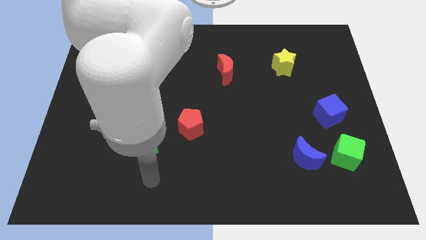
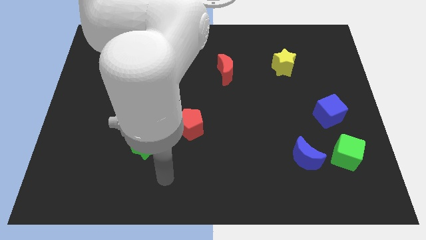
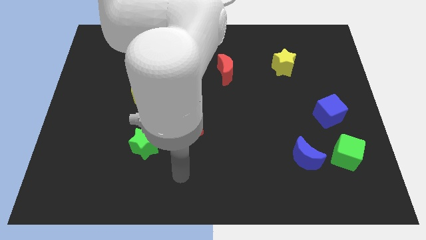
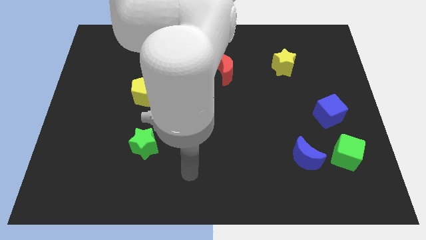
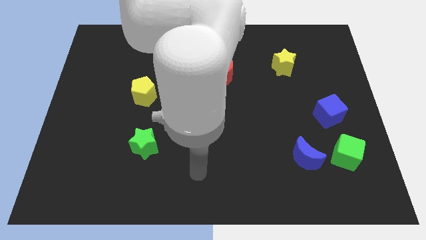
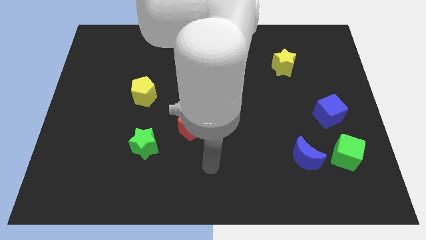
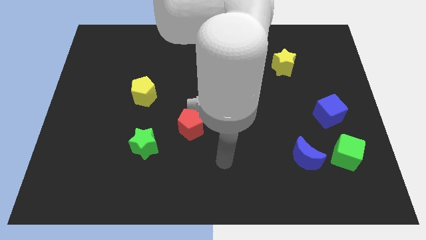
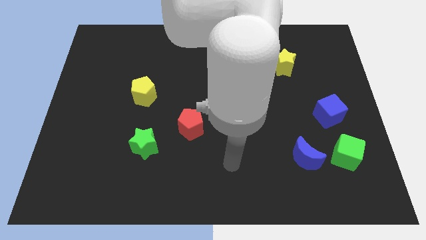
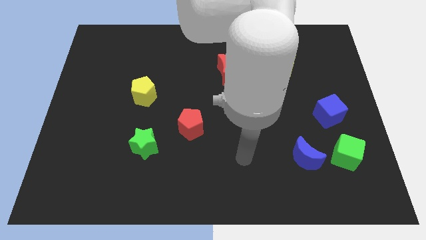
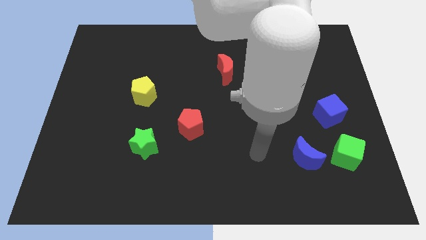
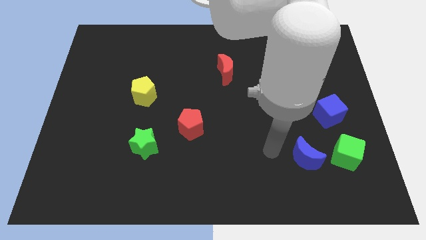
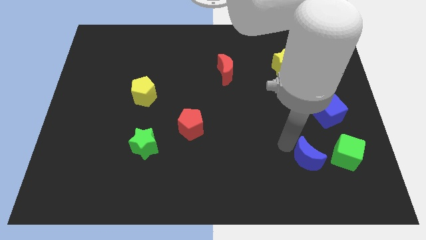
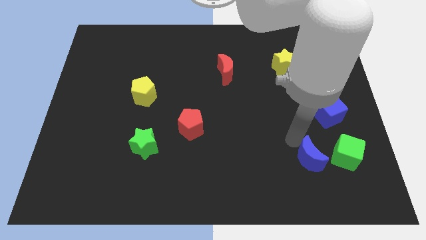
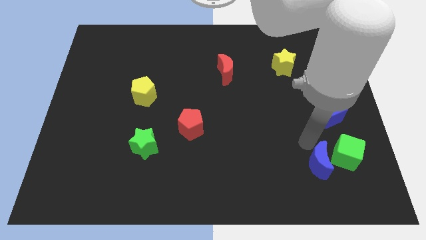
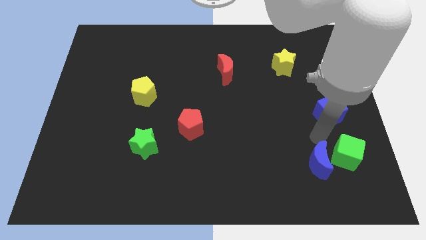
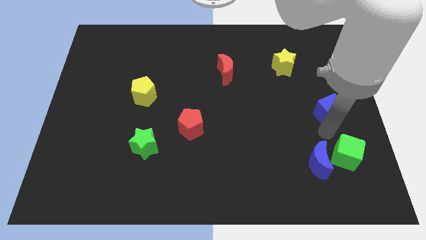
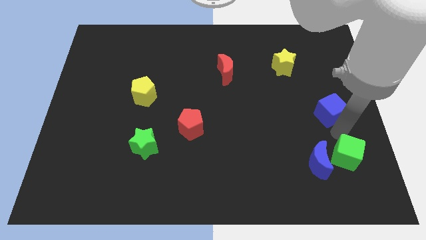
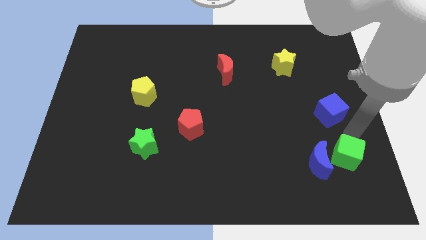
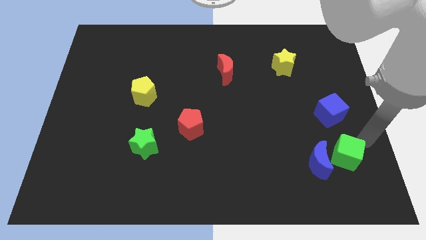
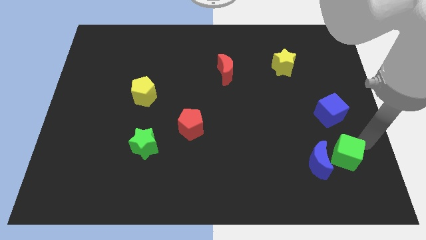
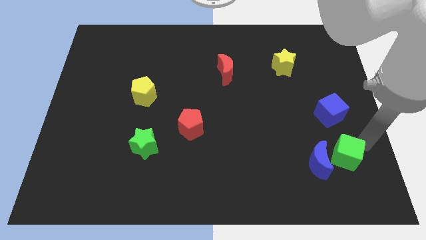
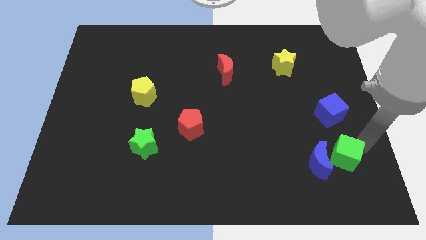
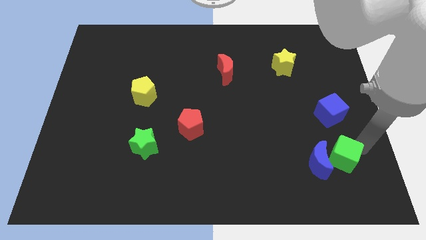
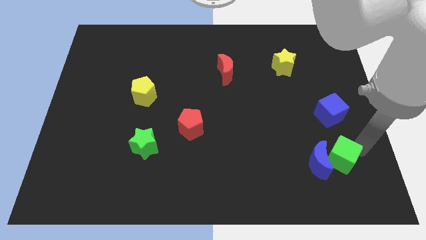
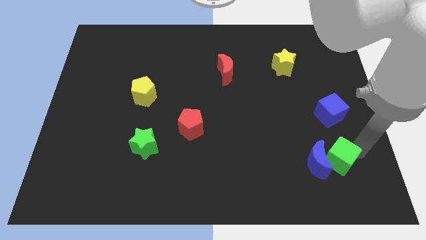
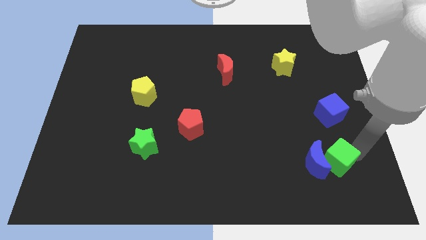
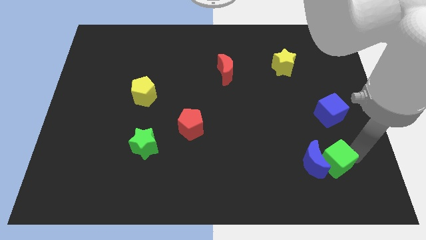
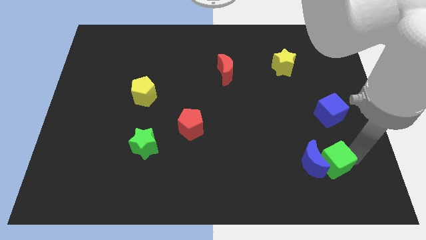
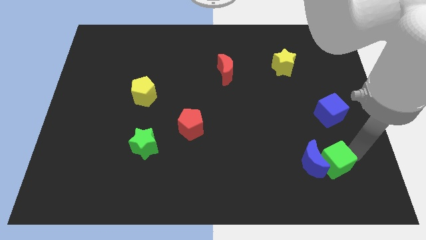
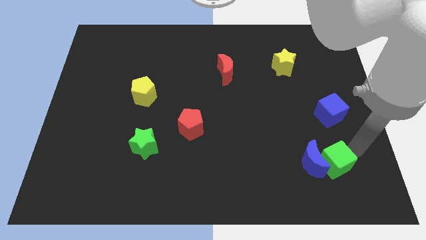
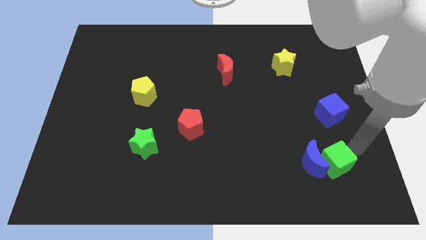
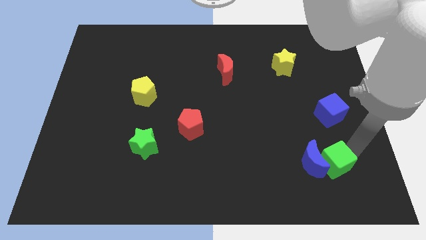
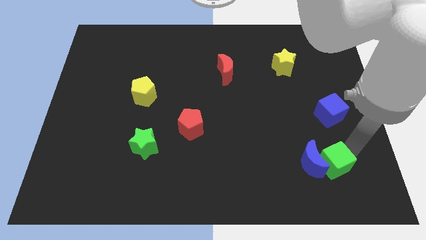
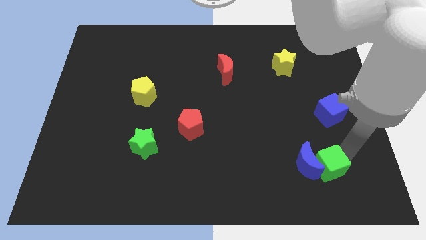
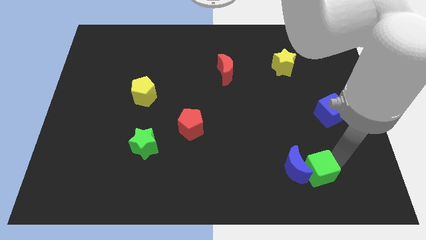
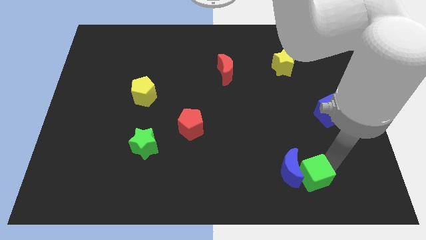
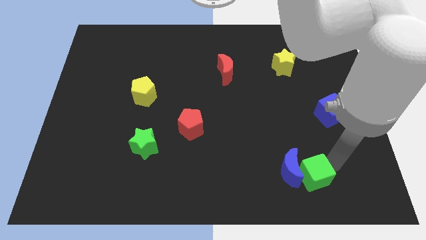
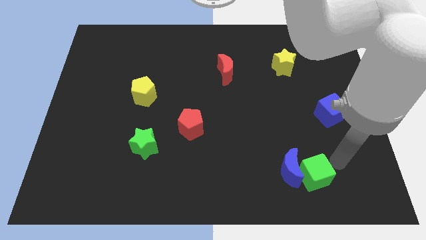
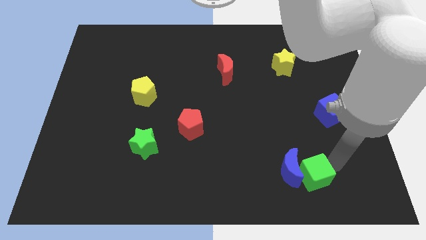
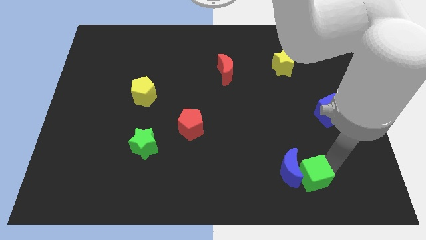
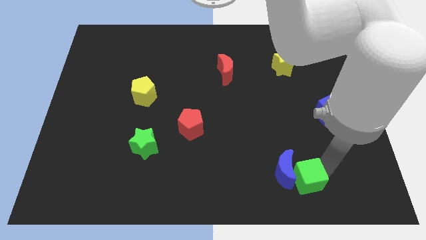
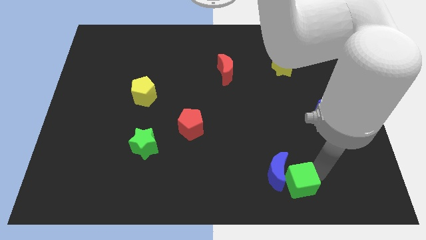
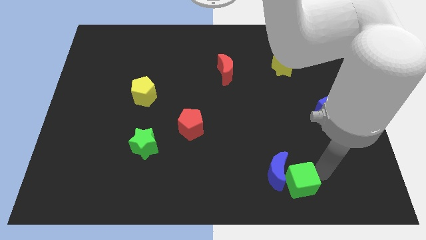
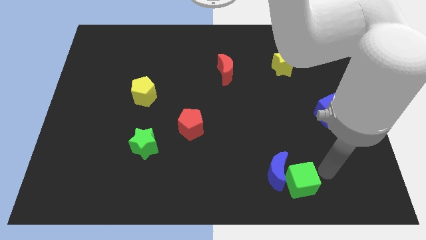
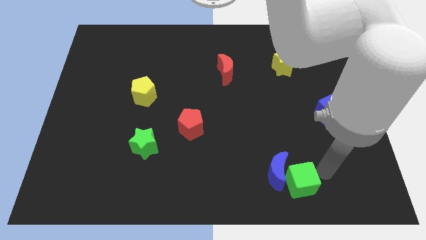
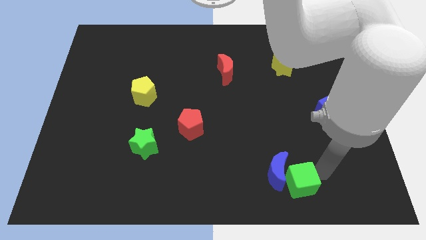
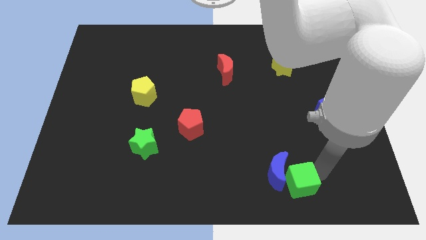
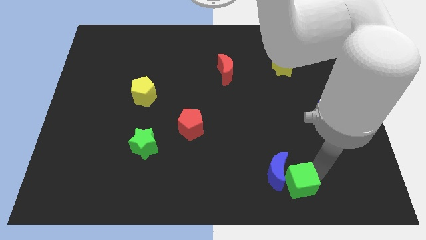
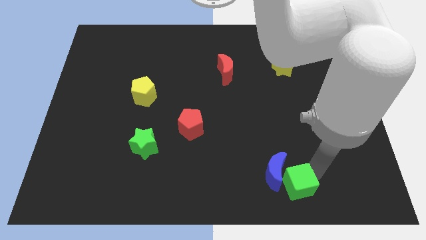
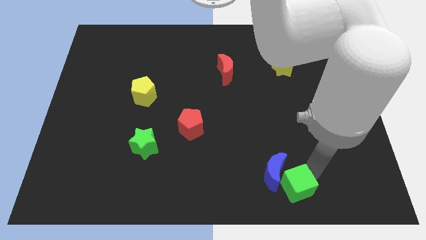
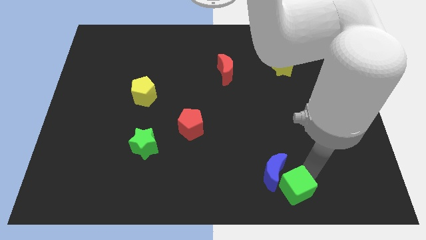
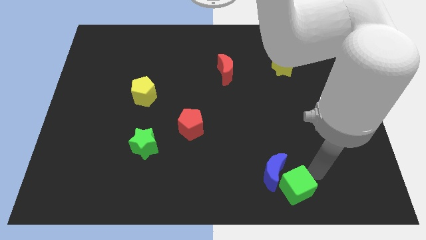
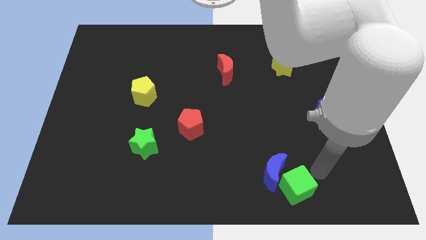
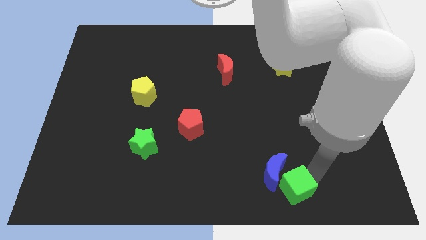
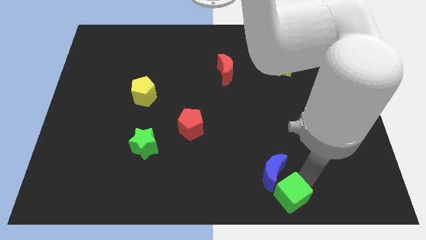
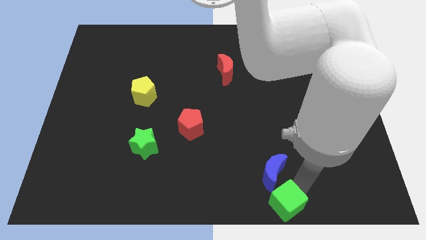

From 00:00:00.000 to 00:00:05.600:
put the green cube to the bottom side
